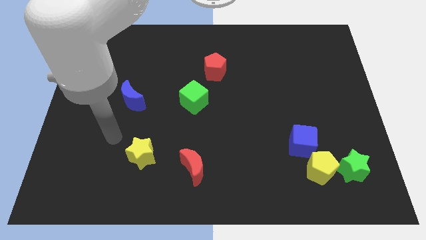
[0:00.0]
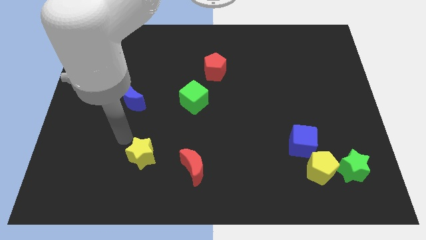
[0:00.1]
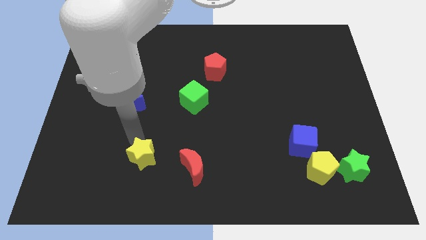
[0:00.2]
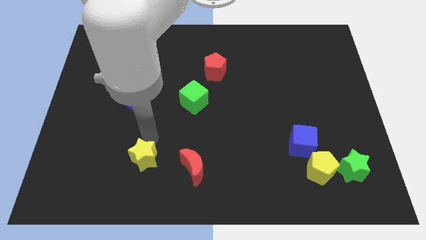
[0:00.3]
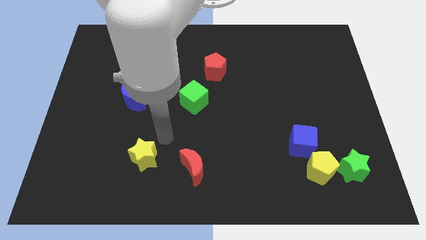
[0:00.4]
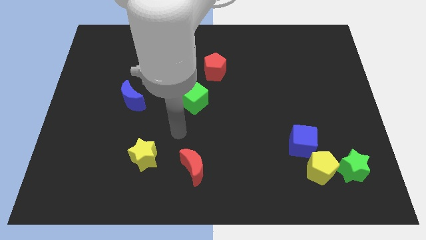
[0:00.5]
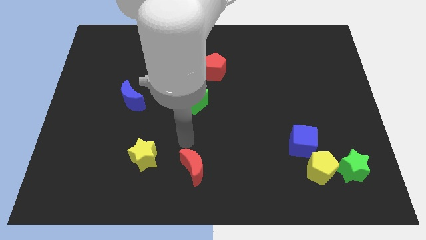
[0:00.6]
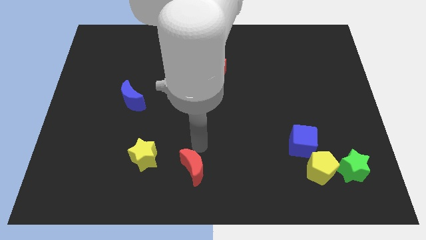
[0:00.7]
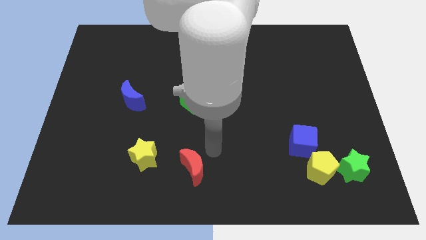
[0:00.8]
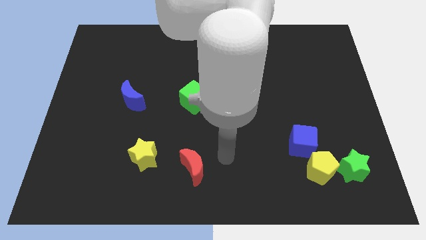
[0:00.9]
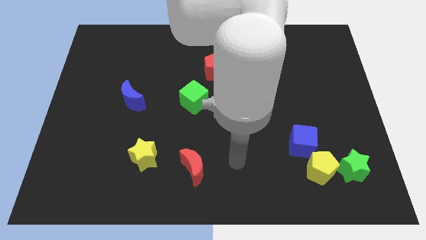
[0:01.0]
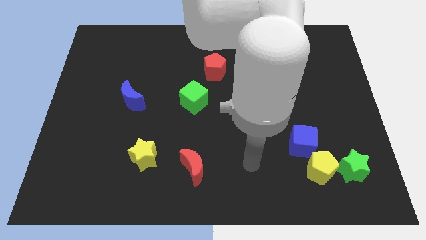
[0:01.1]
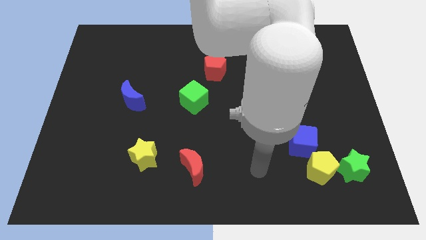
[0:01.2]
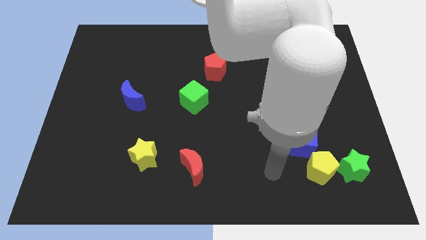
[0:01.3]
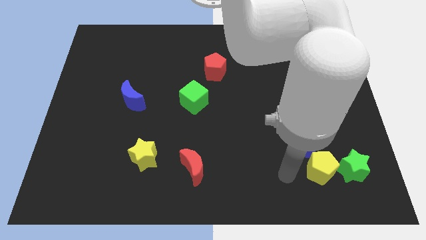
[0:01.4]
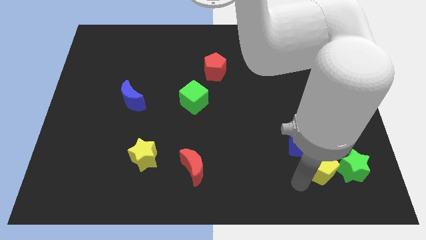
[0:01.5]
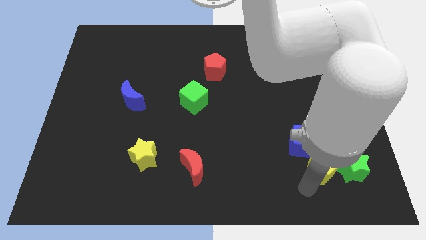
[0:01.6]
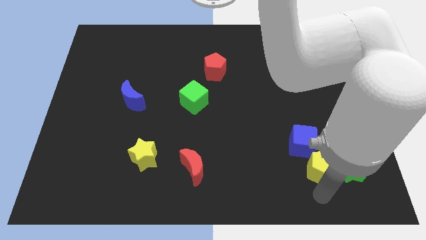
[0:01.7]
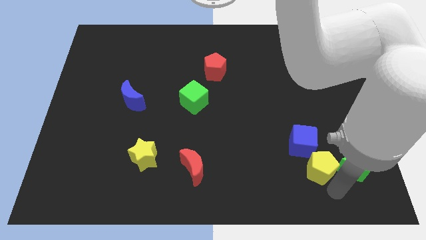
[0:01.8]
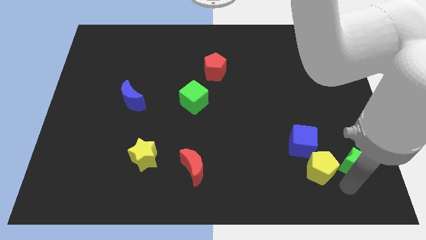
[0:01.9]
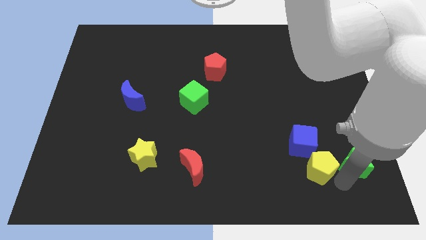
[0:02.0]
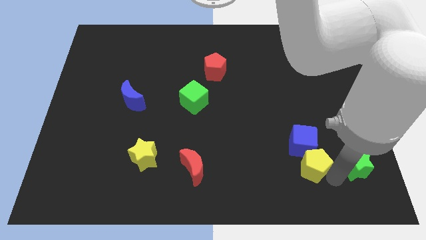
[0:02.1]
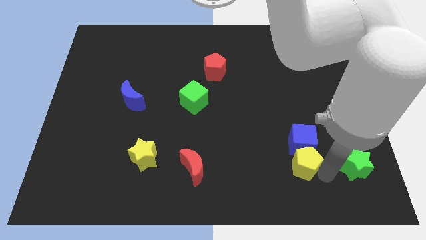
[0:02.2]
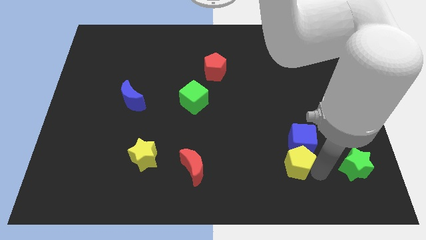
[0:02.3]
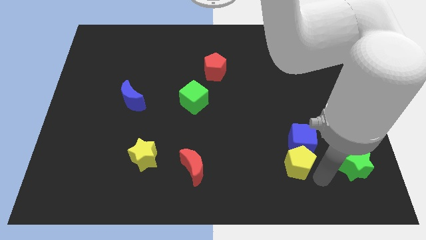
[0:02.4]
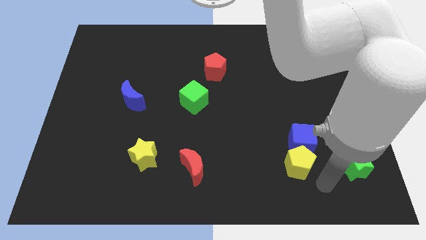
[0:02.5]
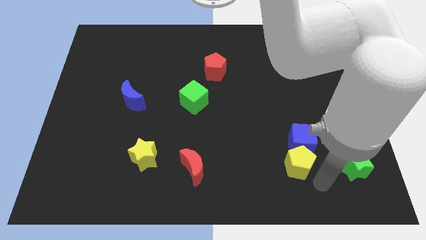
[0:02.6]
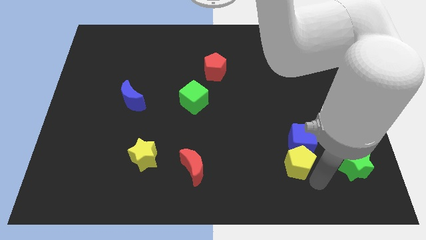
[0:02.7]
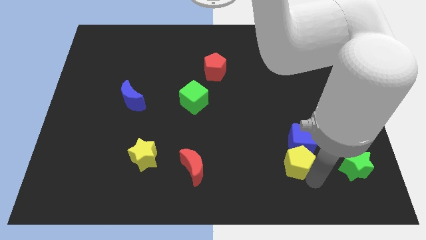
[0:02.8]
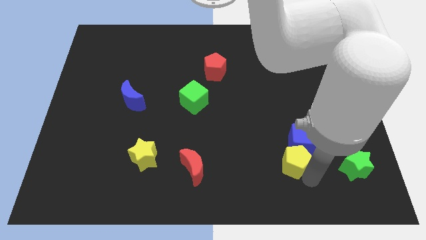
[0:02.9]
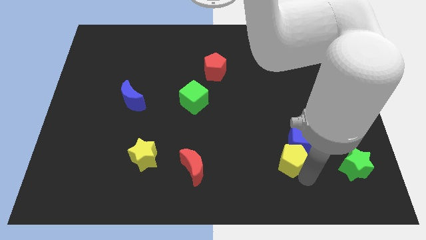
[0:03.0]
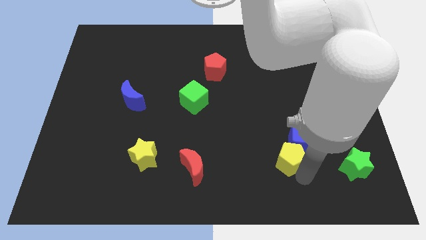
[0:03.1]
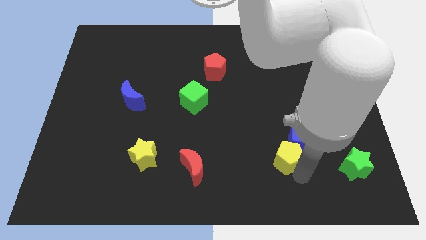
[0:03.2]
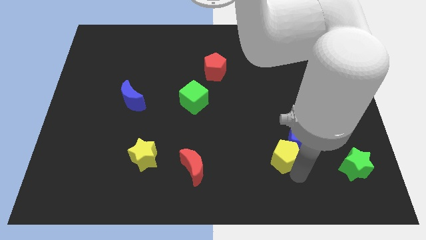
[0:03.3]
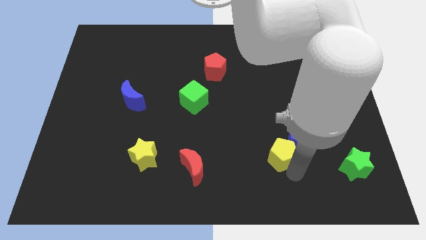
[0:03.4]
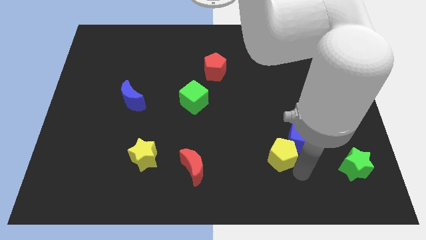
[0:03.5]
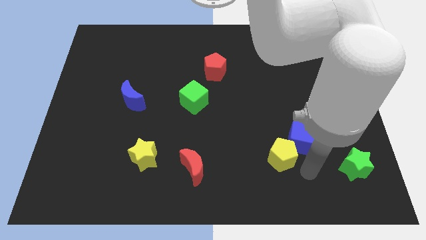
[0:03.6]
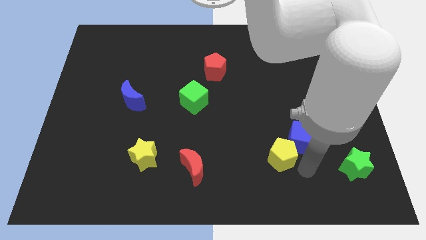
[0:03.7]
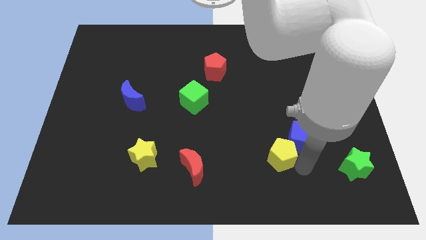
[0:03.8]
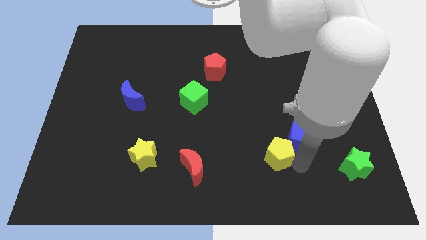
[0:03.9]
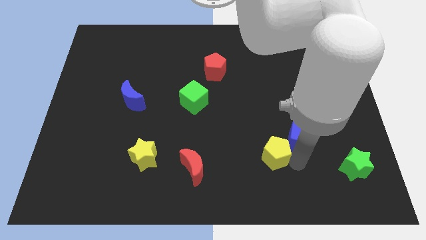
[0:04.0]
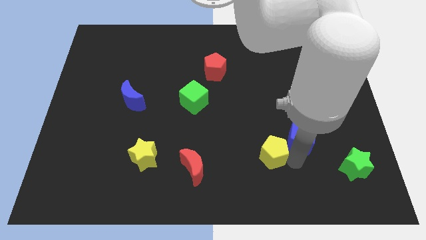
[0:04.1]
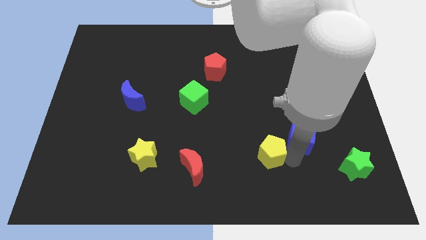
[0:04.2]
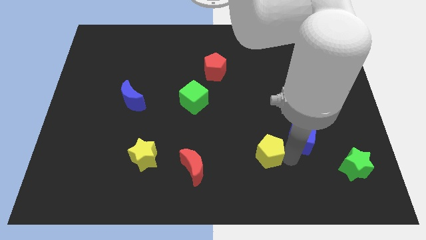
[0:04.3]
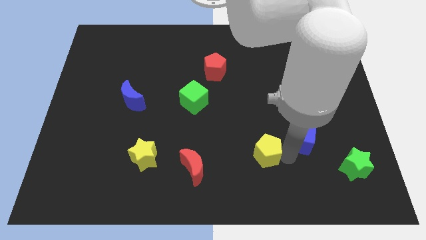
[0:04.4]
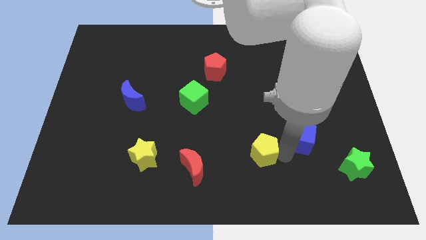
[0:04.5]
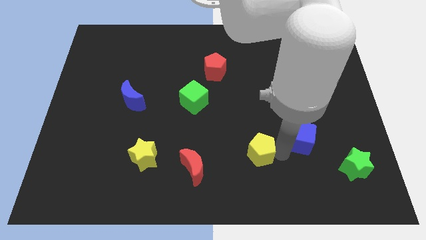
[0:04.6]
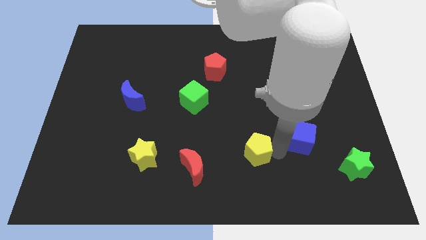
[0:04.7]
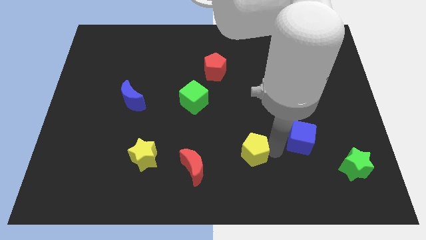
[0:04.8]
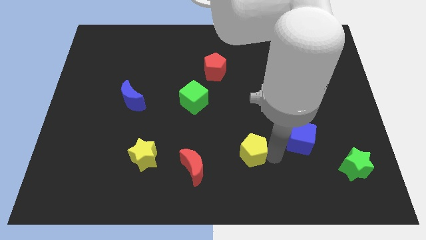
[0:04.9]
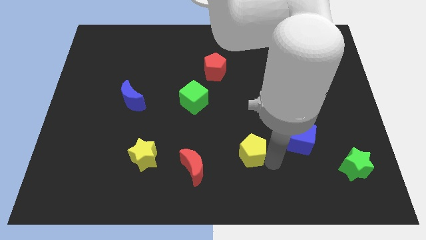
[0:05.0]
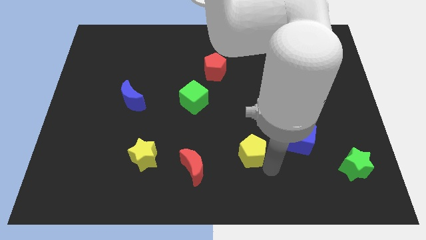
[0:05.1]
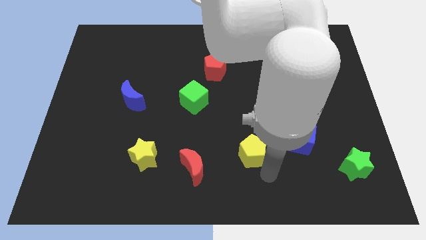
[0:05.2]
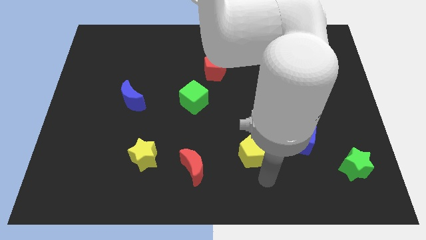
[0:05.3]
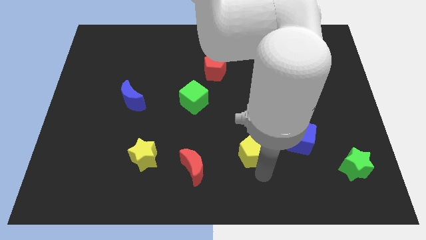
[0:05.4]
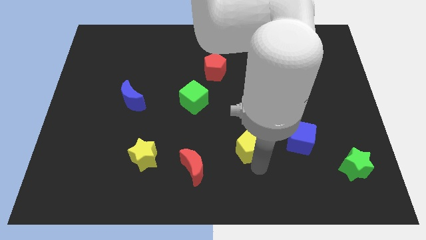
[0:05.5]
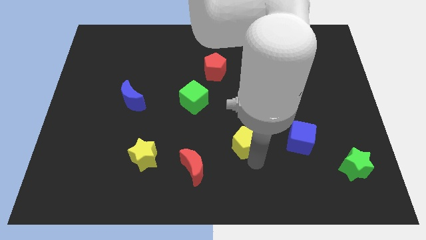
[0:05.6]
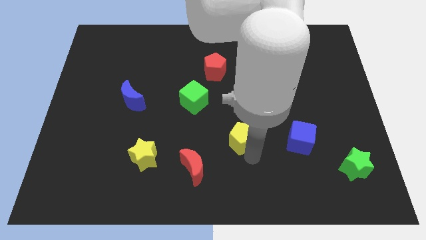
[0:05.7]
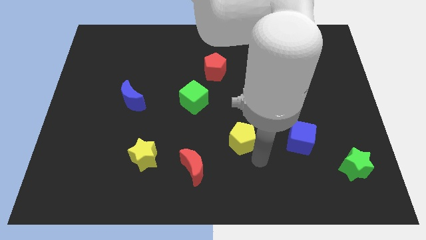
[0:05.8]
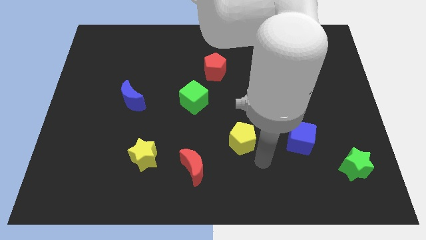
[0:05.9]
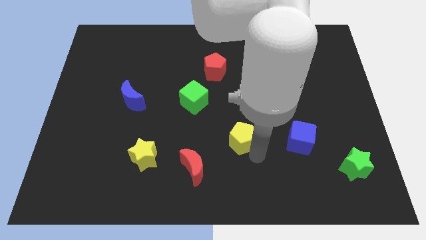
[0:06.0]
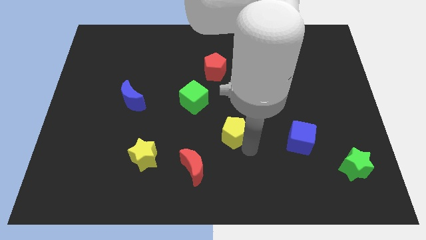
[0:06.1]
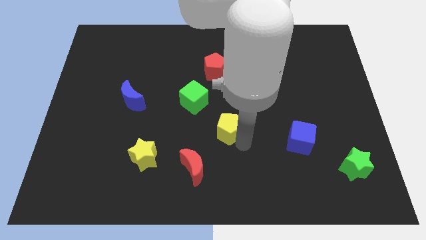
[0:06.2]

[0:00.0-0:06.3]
push the yellow pentagon to the bottom right side of the green cube

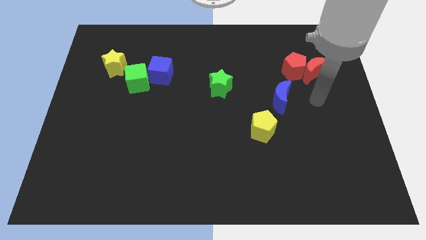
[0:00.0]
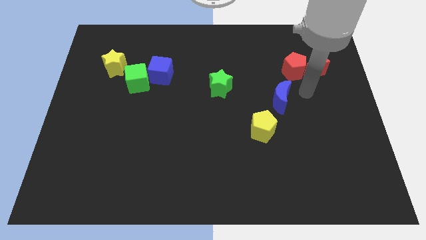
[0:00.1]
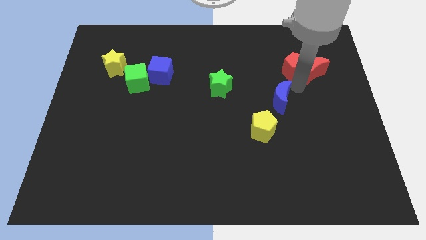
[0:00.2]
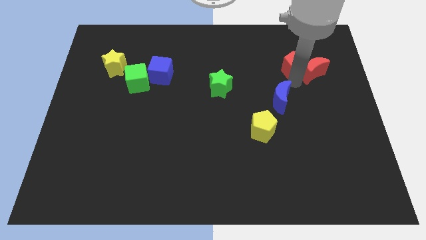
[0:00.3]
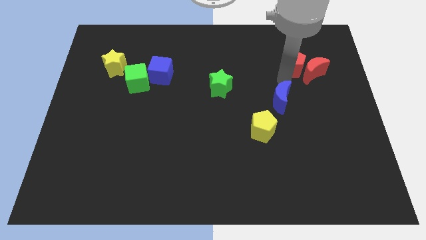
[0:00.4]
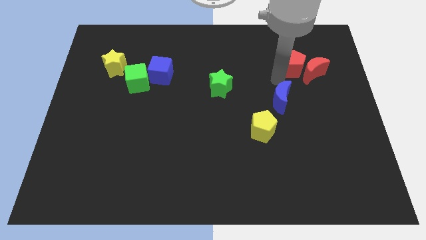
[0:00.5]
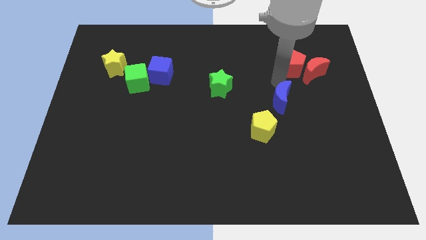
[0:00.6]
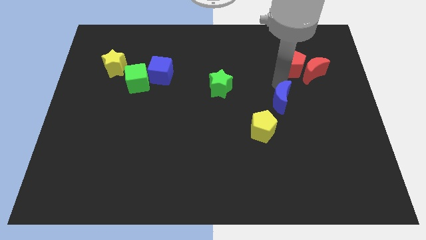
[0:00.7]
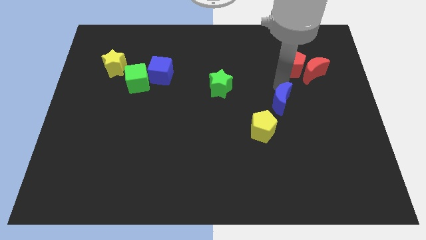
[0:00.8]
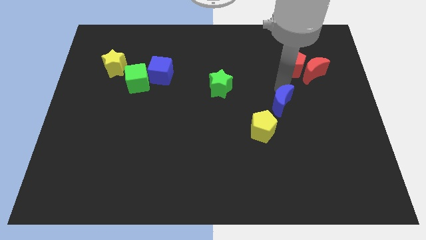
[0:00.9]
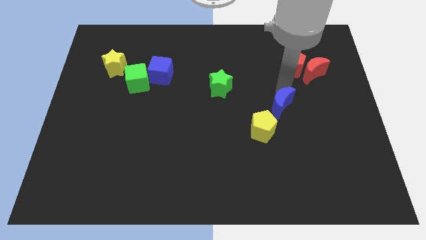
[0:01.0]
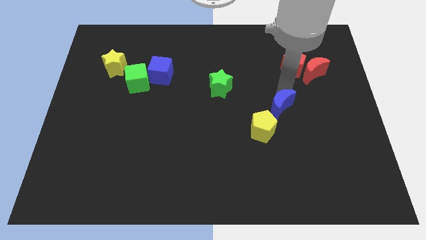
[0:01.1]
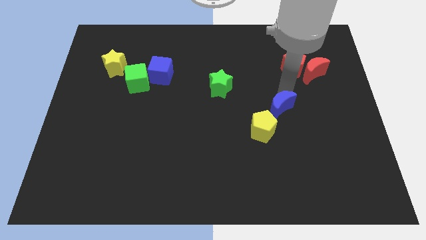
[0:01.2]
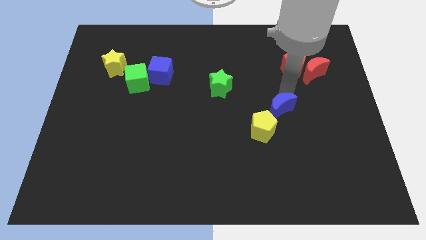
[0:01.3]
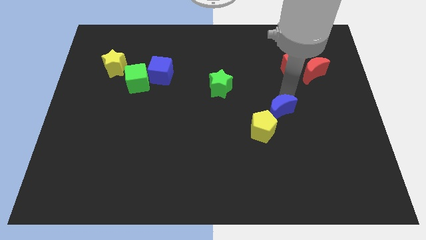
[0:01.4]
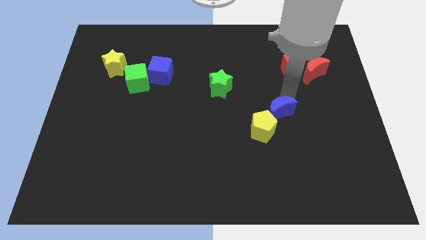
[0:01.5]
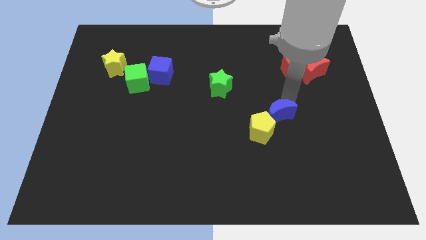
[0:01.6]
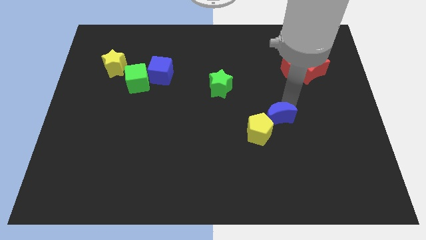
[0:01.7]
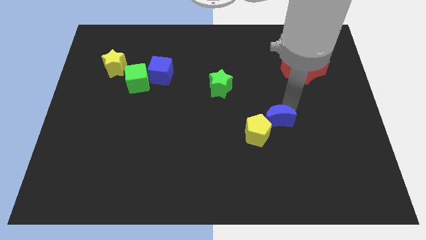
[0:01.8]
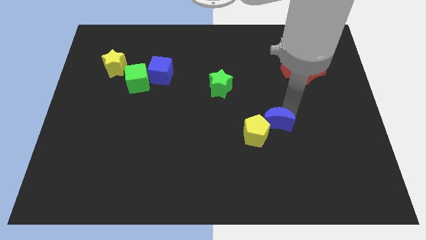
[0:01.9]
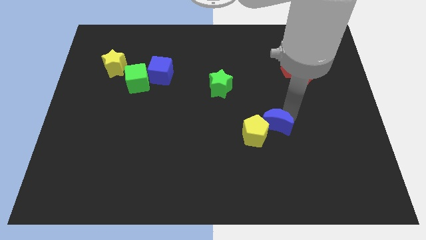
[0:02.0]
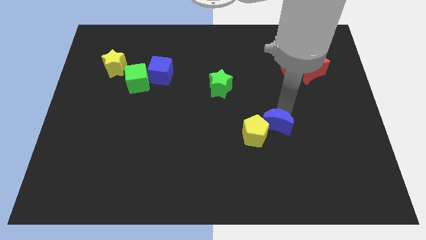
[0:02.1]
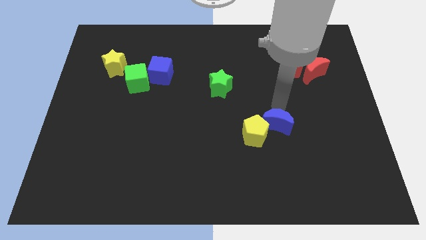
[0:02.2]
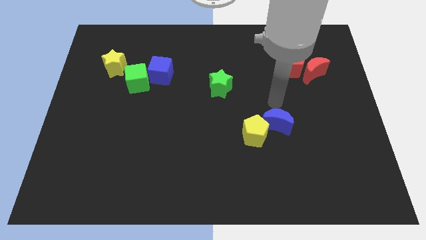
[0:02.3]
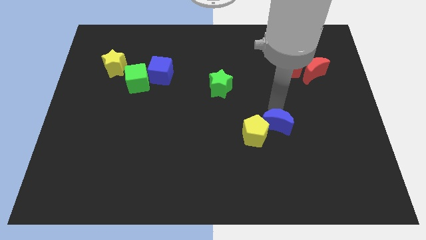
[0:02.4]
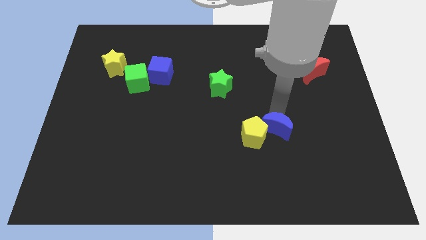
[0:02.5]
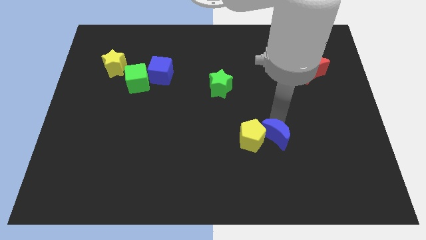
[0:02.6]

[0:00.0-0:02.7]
put the blue moon to the bottom right of the yellow pentagon
